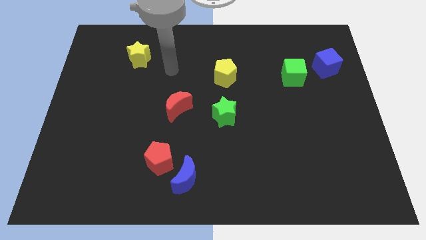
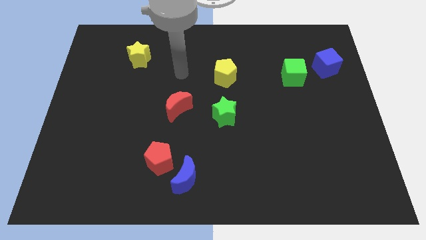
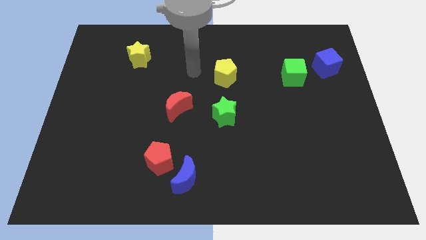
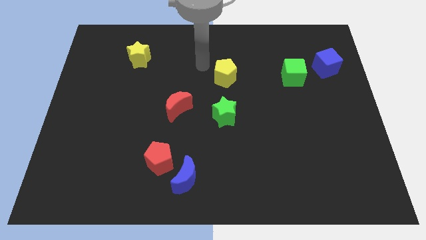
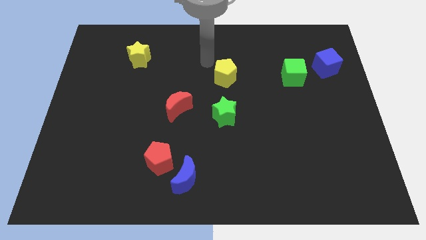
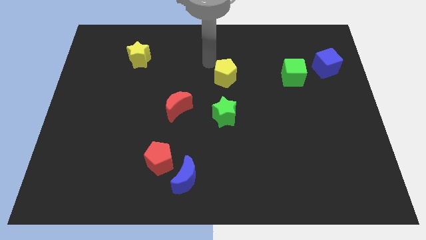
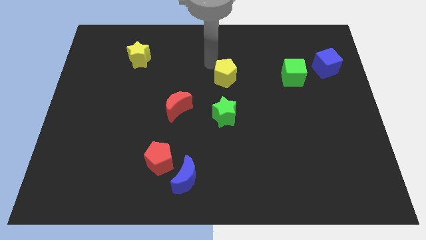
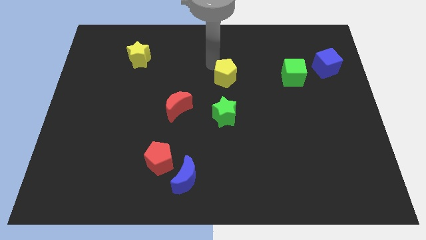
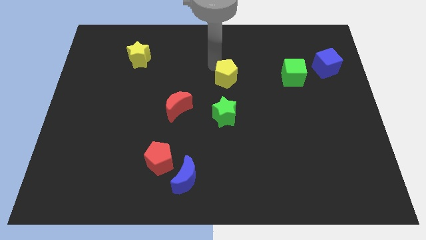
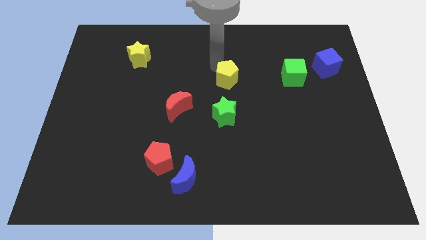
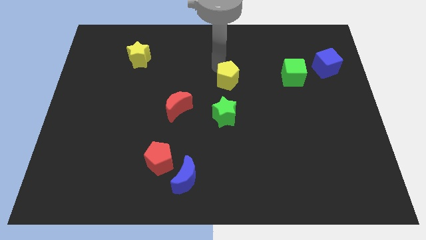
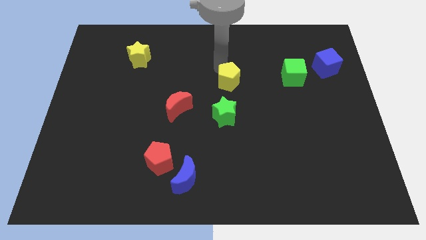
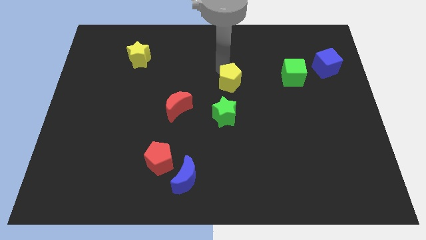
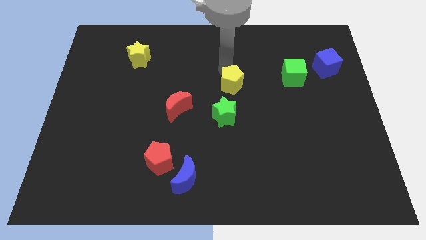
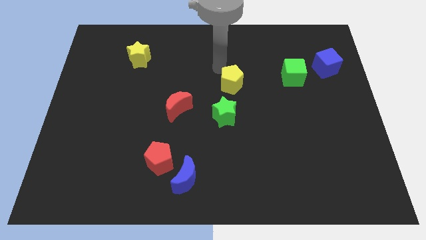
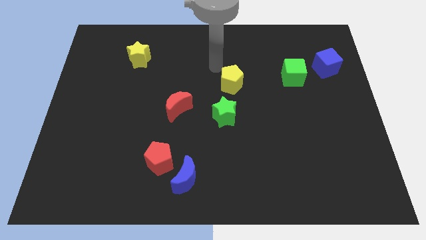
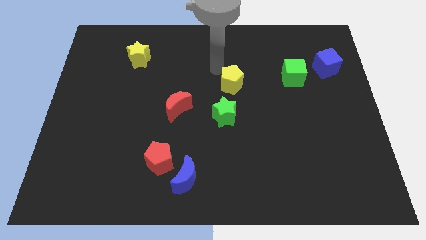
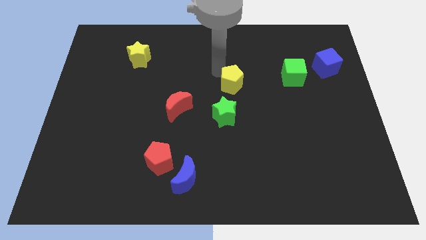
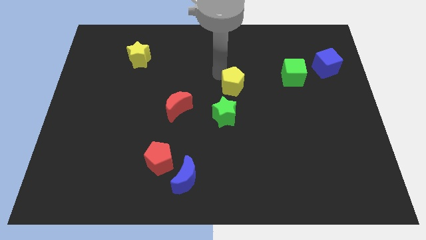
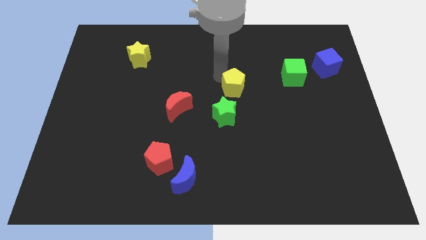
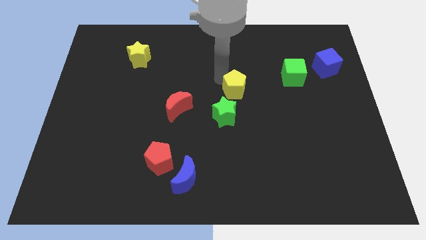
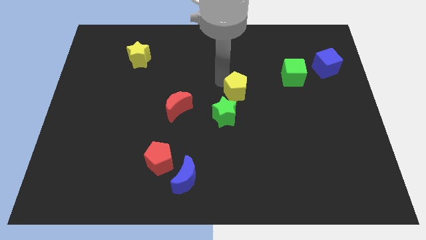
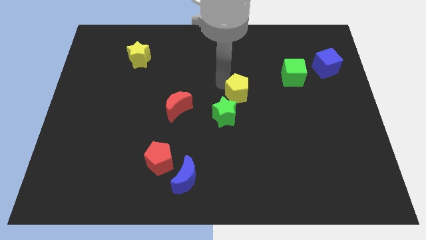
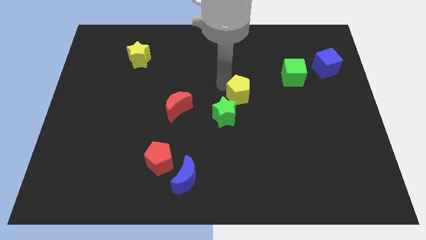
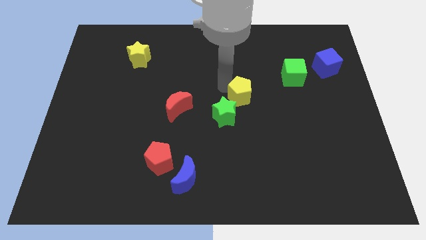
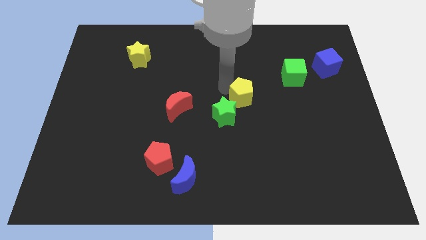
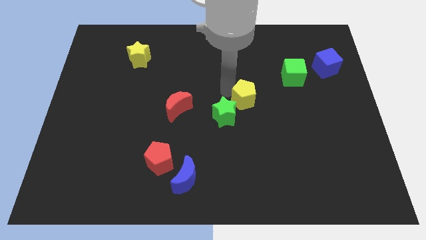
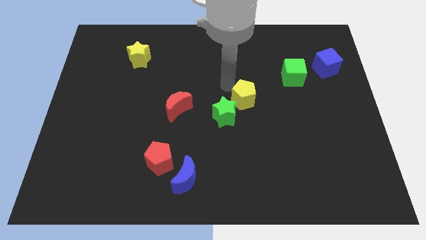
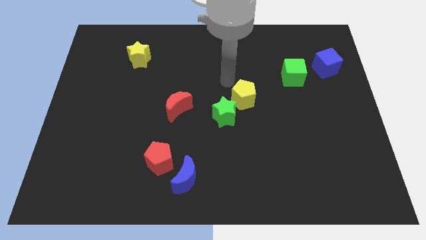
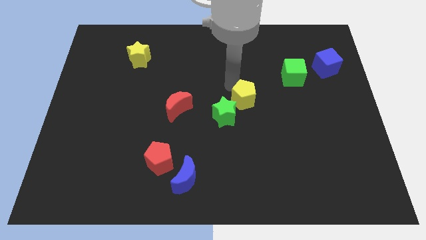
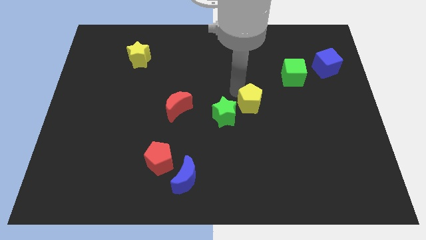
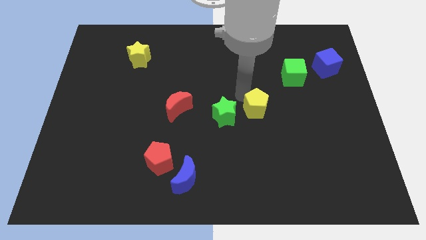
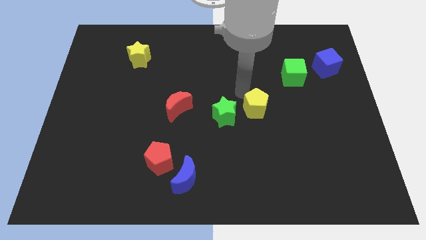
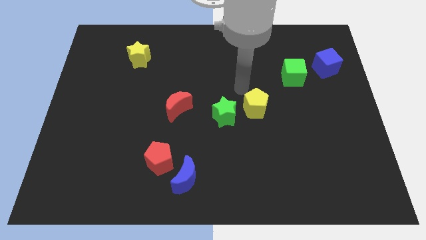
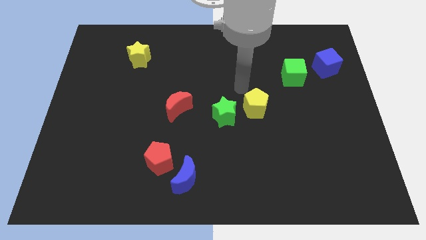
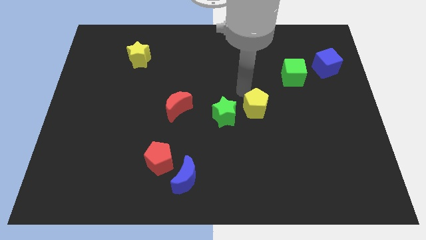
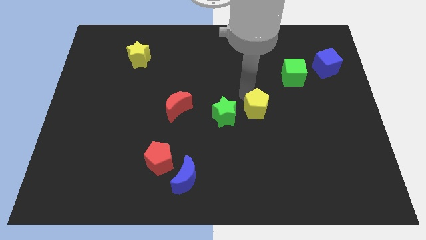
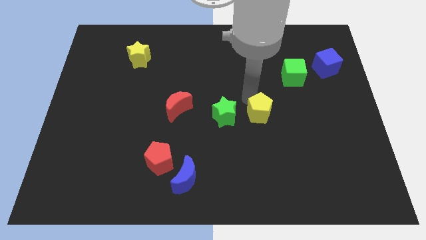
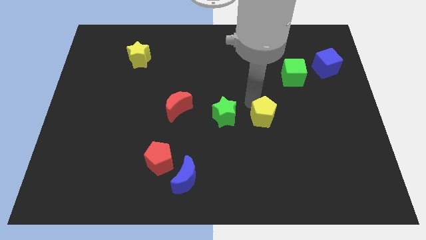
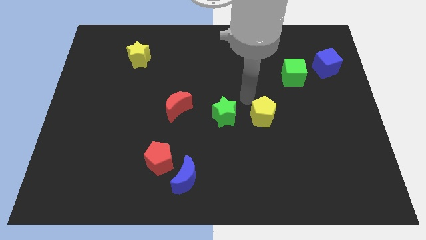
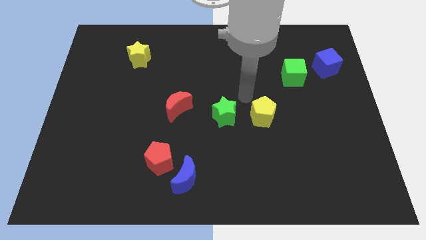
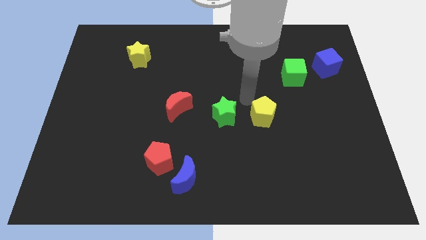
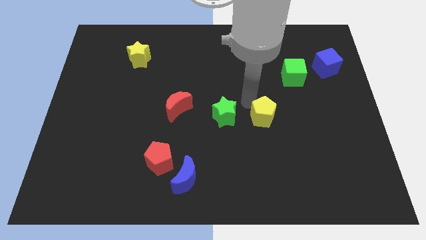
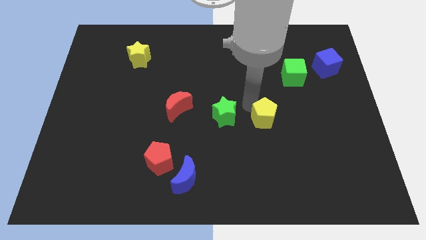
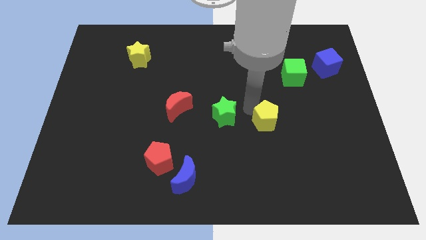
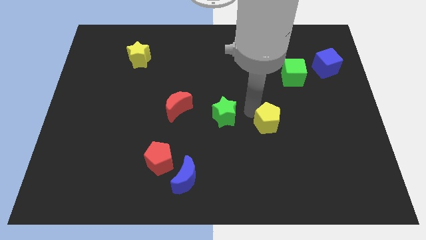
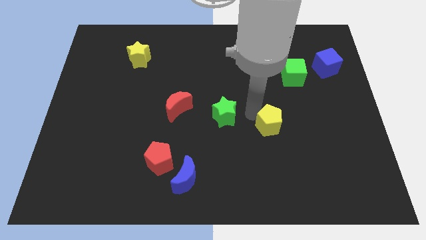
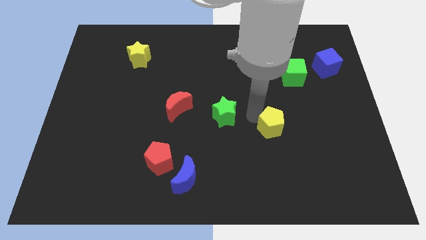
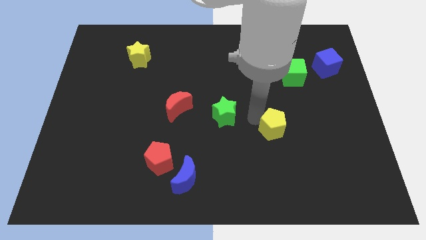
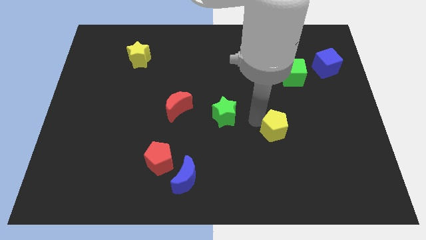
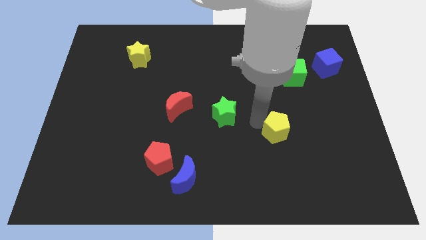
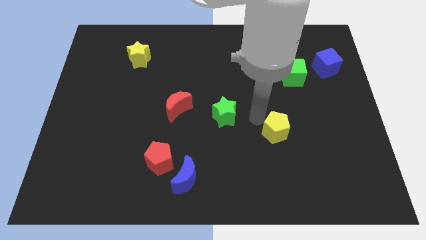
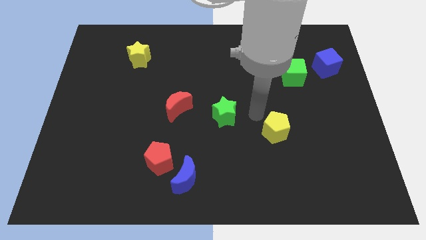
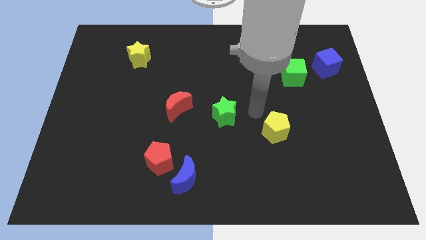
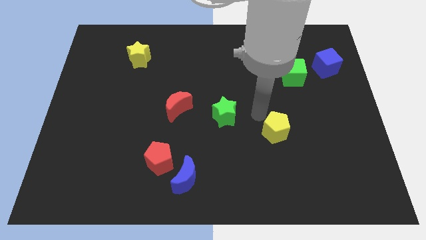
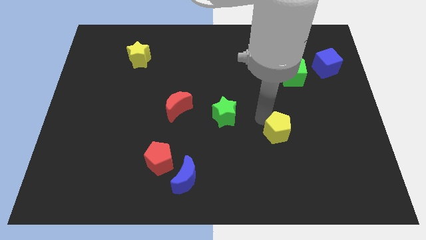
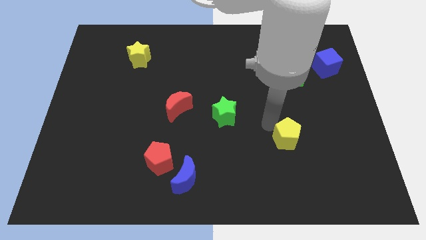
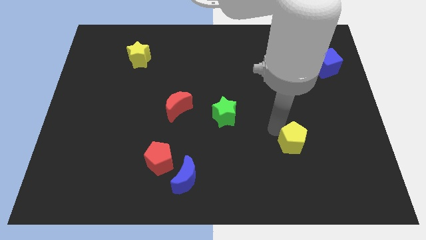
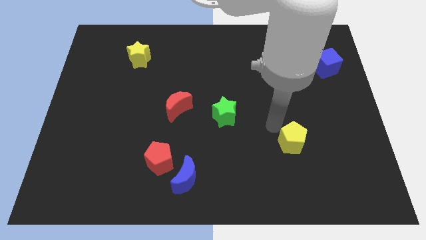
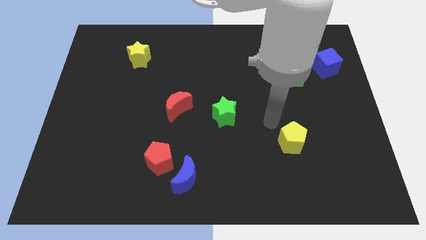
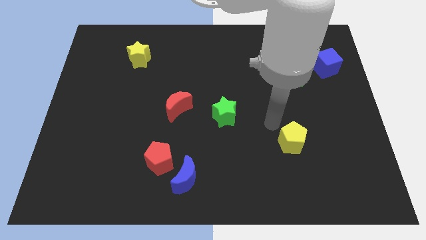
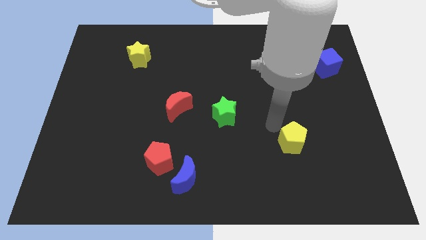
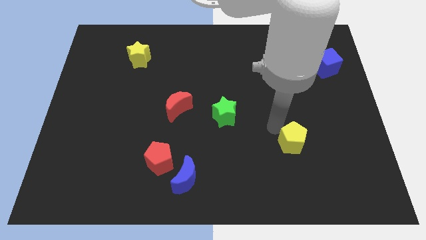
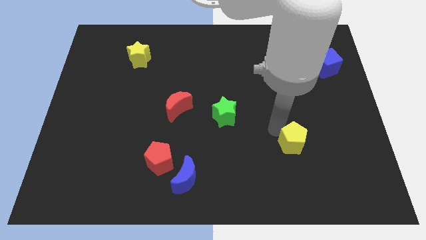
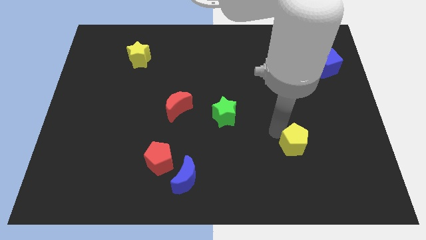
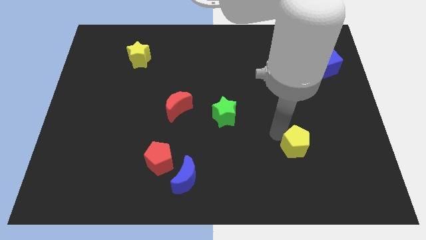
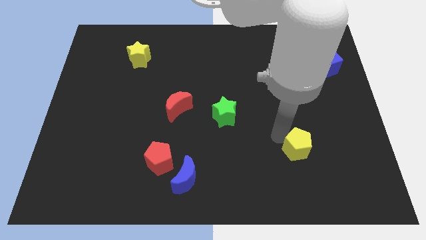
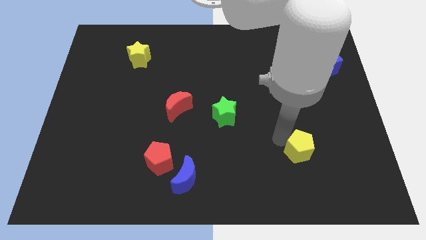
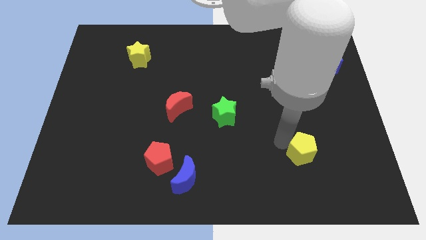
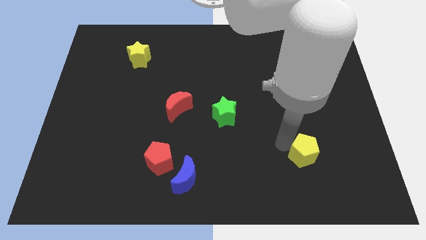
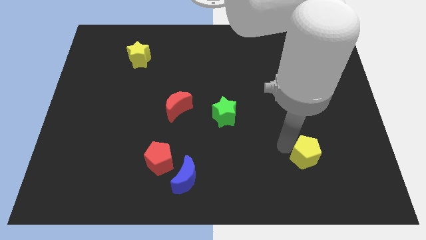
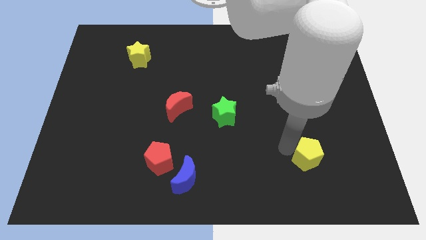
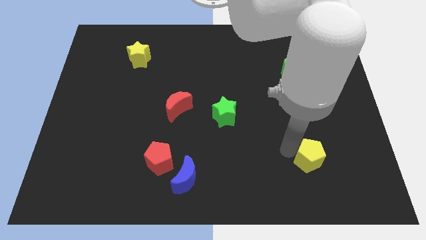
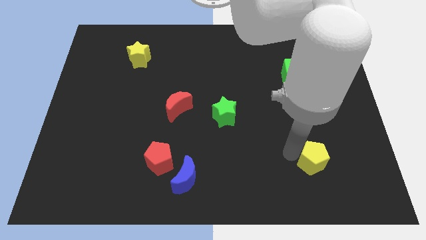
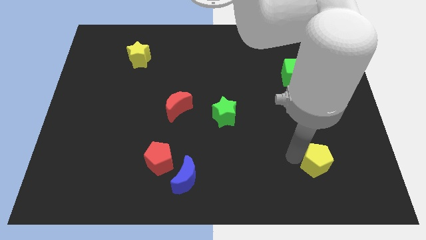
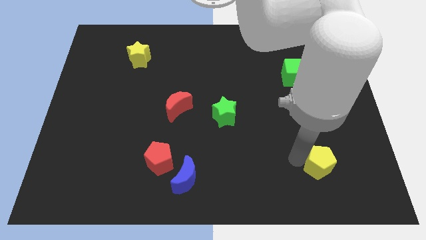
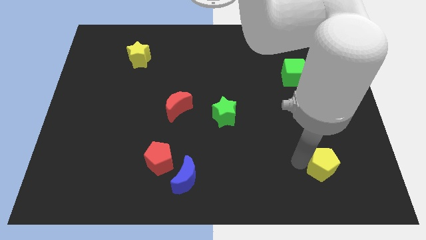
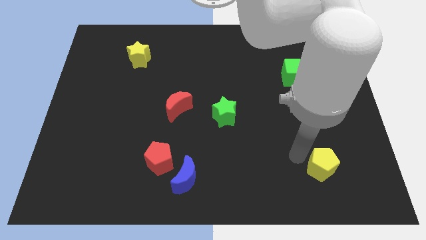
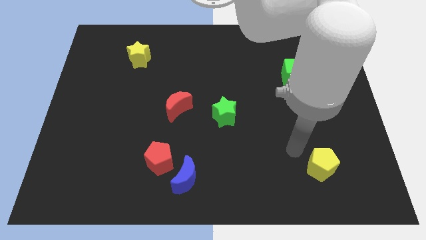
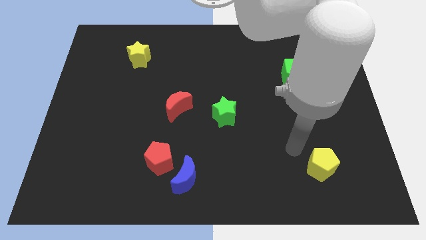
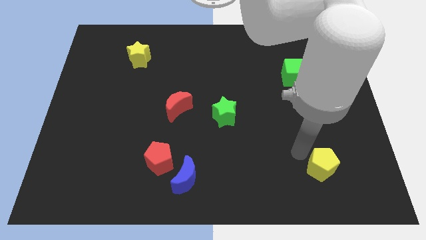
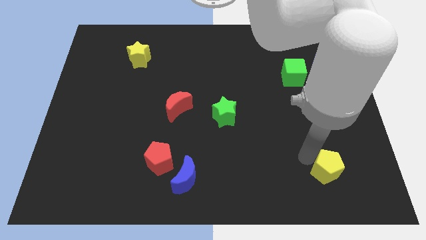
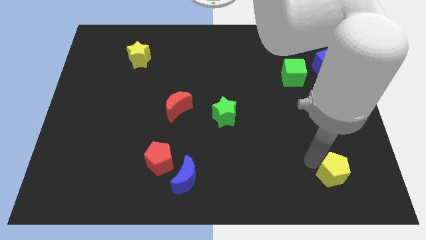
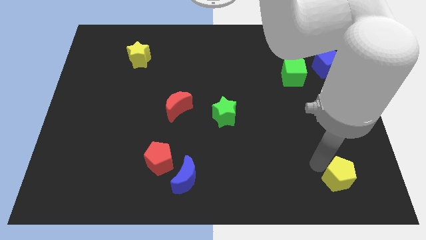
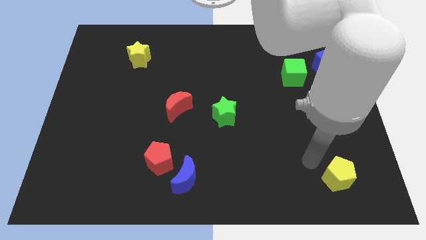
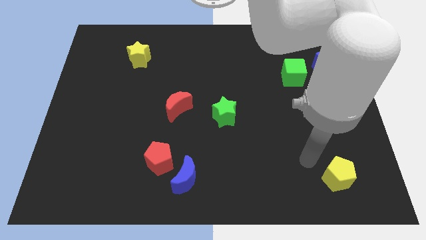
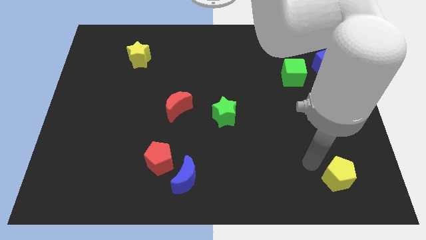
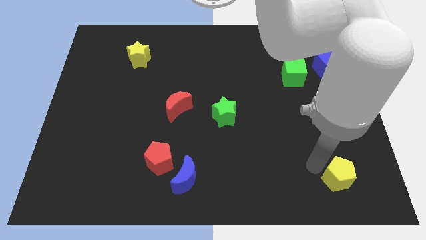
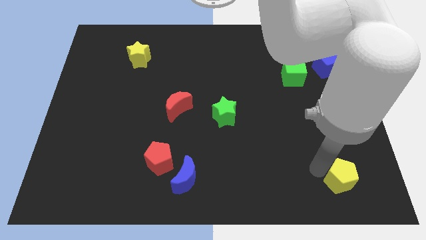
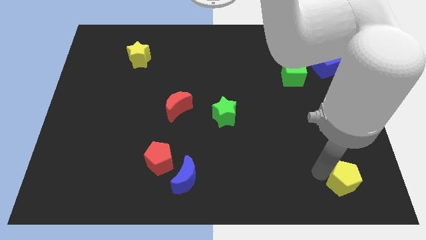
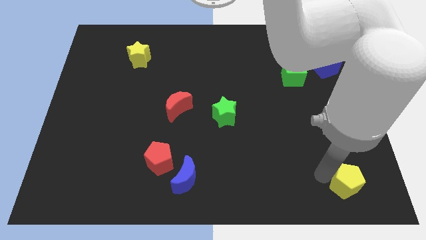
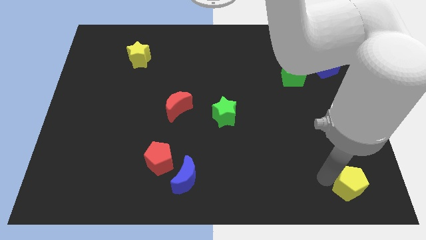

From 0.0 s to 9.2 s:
slide the yellow pentagon to the bottom right
